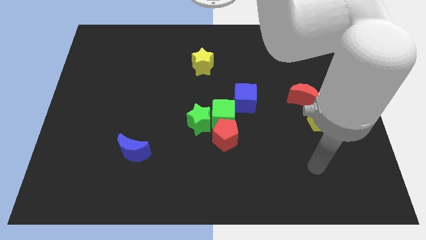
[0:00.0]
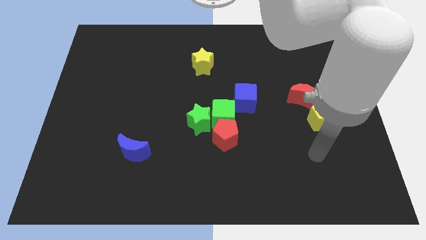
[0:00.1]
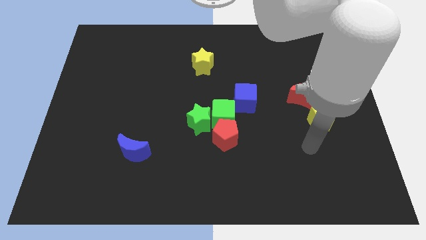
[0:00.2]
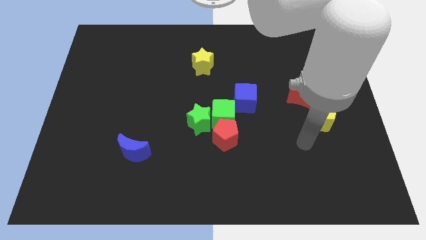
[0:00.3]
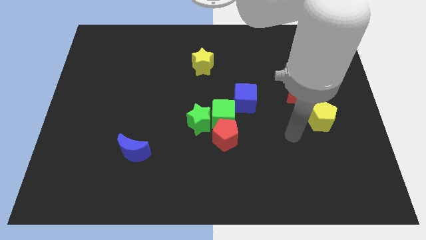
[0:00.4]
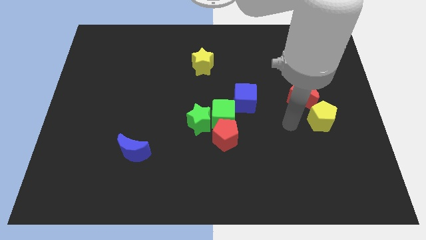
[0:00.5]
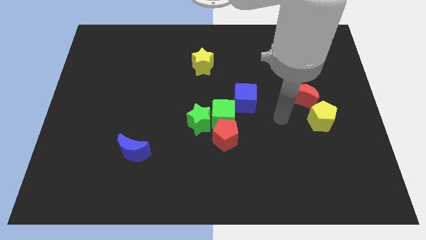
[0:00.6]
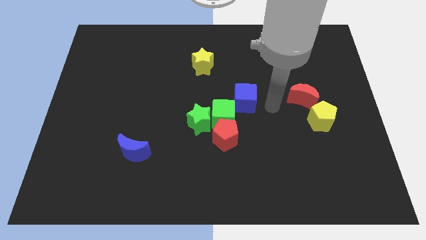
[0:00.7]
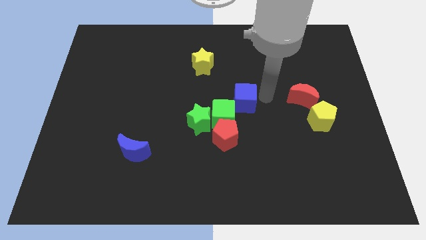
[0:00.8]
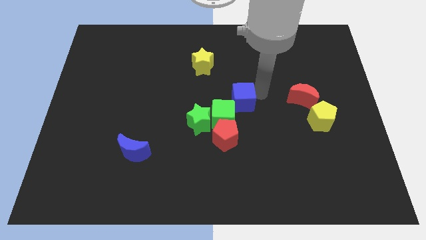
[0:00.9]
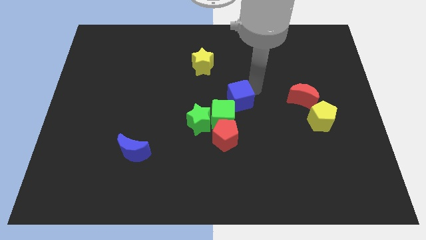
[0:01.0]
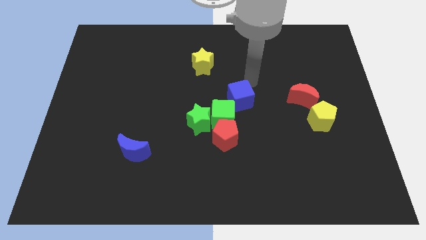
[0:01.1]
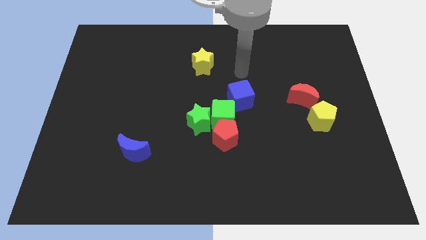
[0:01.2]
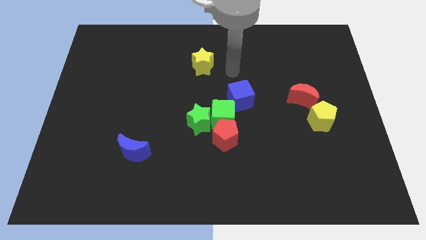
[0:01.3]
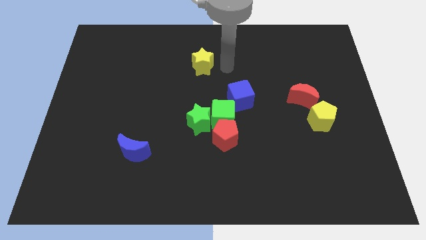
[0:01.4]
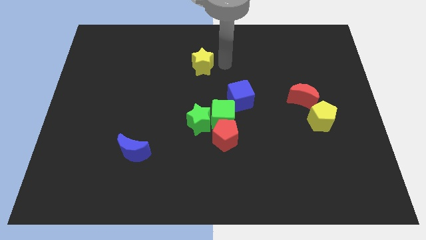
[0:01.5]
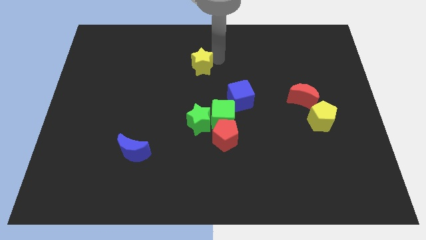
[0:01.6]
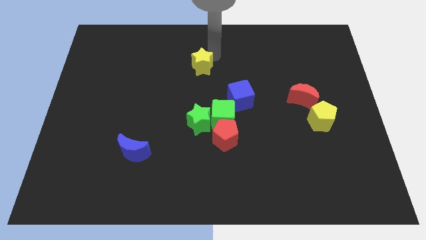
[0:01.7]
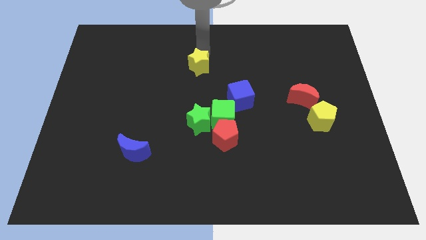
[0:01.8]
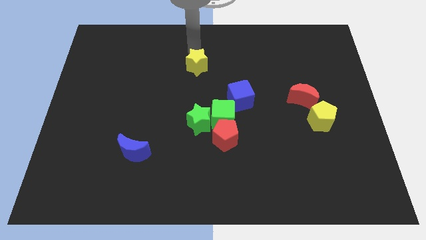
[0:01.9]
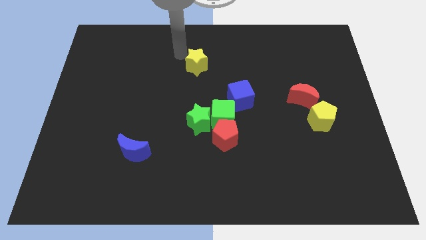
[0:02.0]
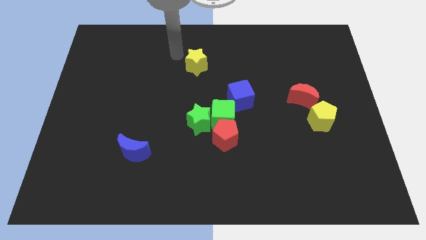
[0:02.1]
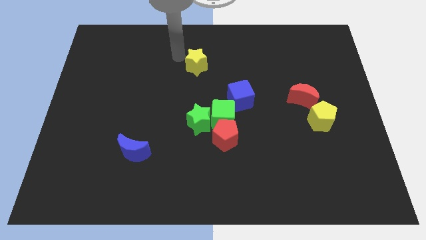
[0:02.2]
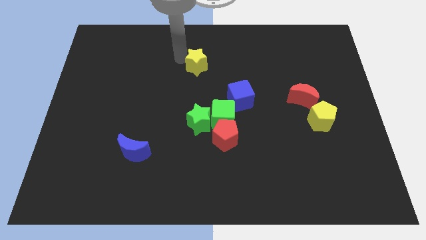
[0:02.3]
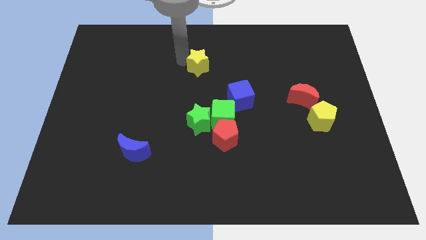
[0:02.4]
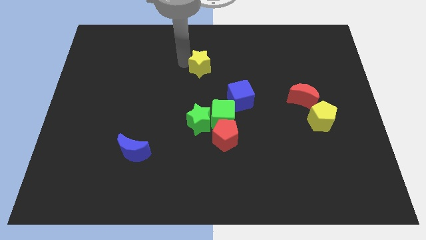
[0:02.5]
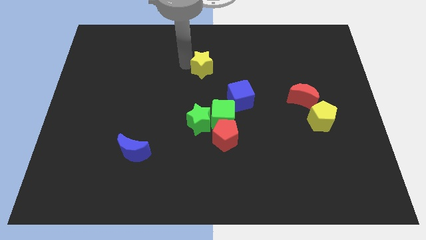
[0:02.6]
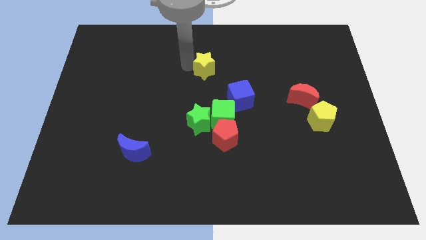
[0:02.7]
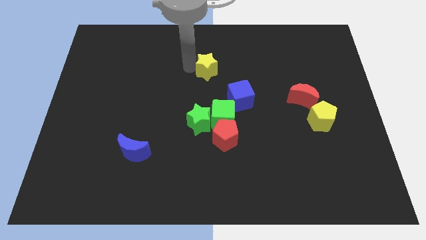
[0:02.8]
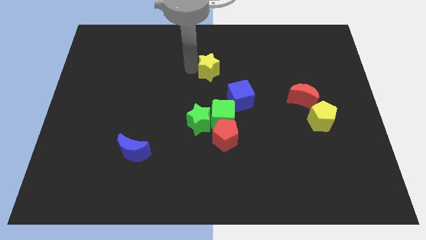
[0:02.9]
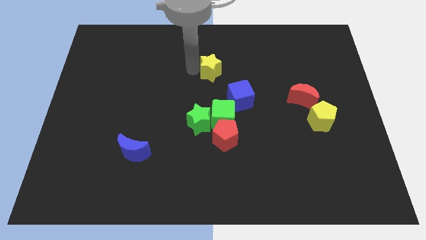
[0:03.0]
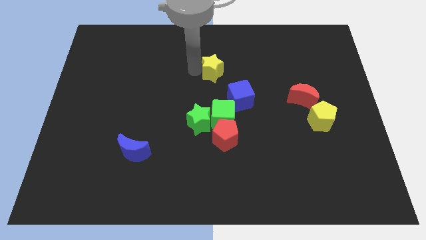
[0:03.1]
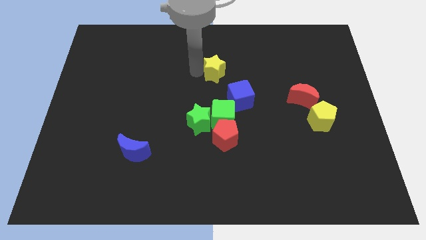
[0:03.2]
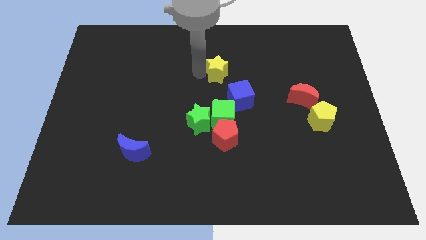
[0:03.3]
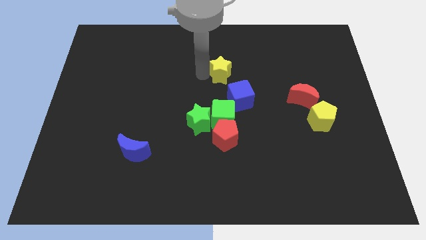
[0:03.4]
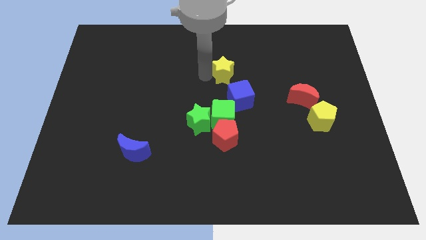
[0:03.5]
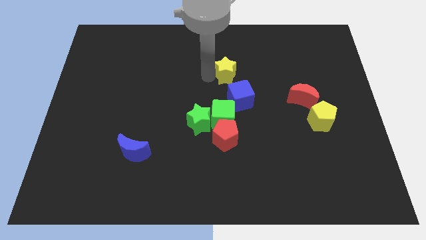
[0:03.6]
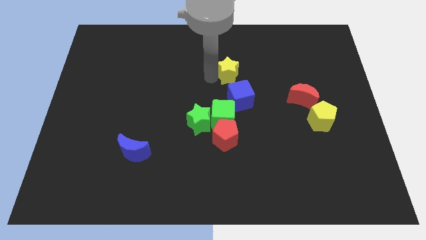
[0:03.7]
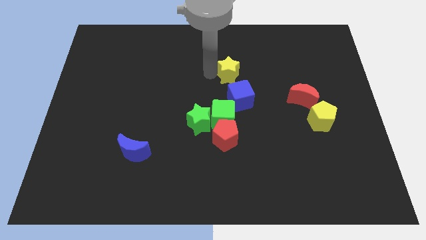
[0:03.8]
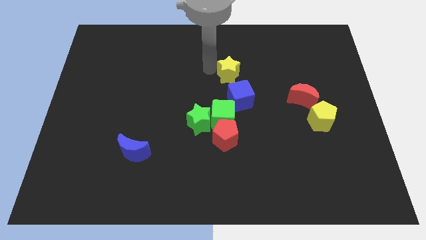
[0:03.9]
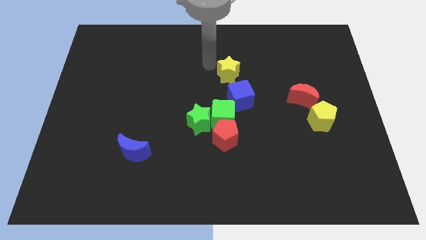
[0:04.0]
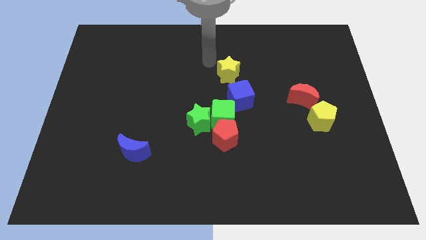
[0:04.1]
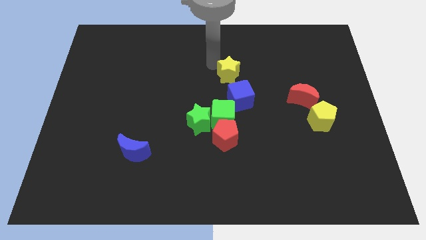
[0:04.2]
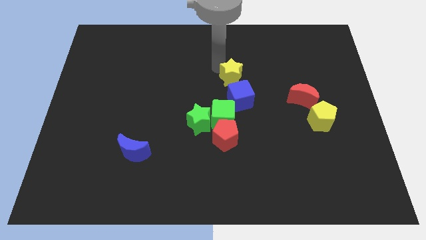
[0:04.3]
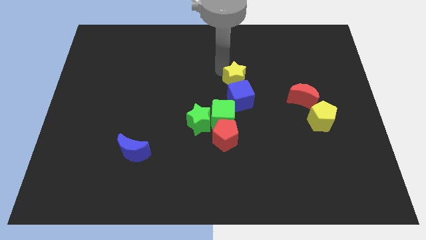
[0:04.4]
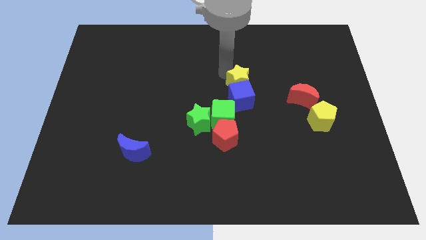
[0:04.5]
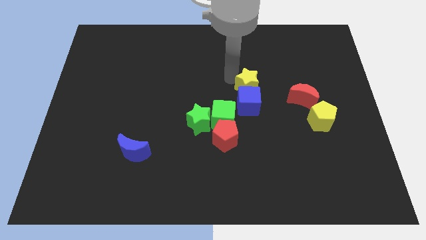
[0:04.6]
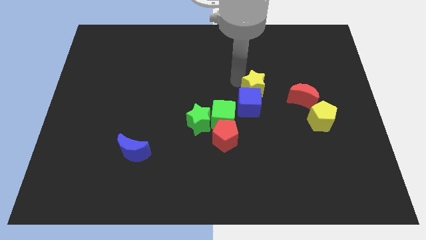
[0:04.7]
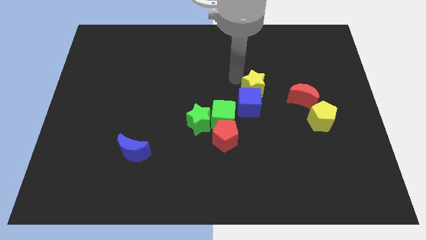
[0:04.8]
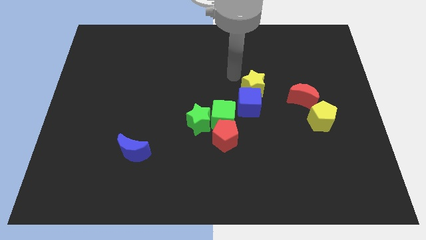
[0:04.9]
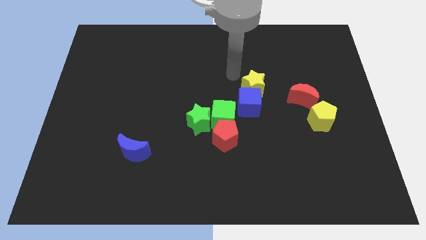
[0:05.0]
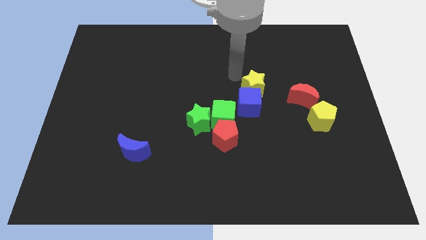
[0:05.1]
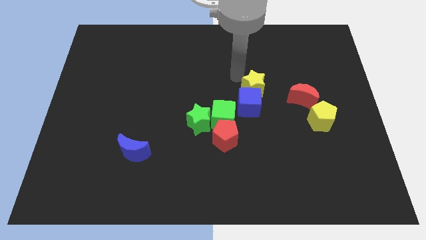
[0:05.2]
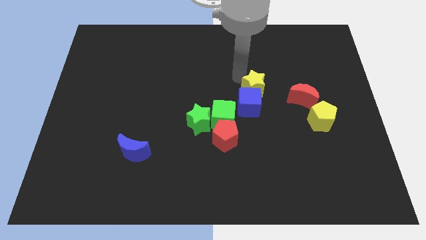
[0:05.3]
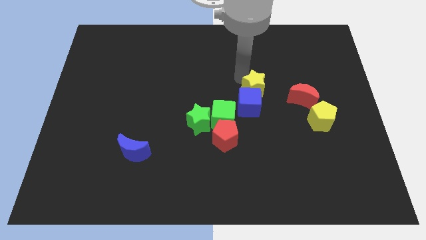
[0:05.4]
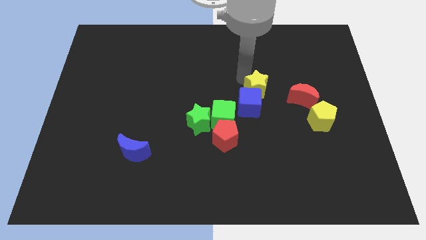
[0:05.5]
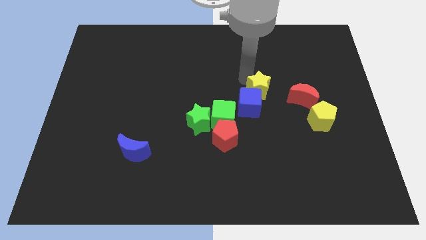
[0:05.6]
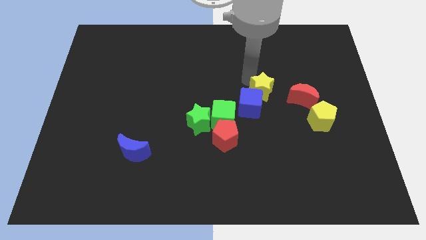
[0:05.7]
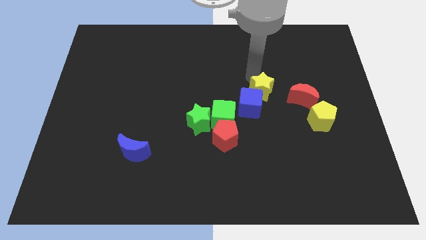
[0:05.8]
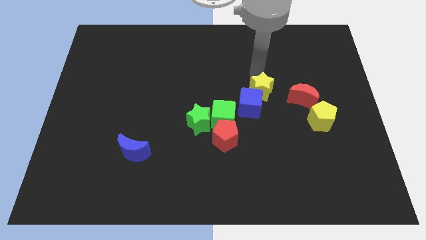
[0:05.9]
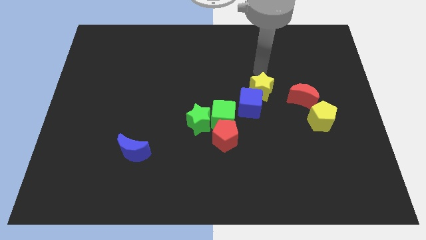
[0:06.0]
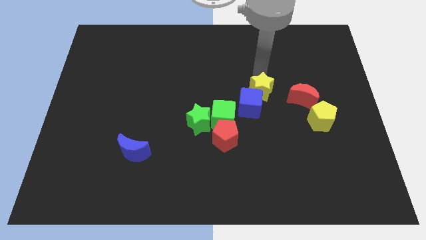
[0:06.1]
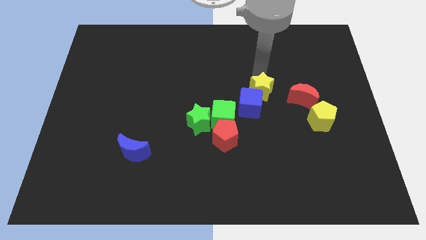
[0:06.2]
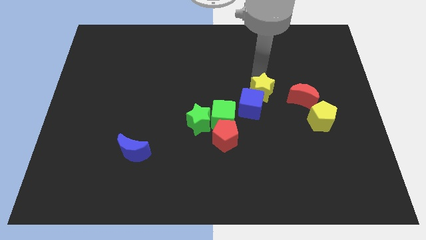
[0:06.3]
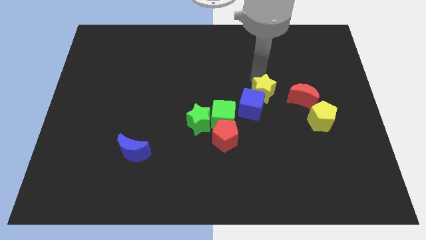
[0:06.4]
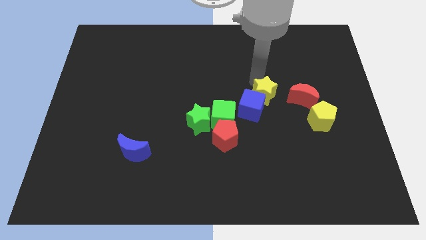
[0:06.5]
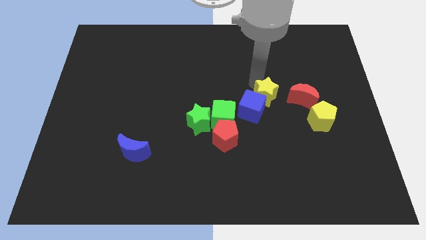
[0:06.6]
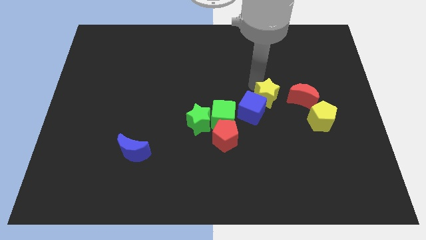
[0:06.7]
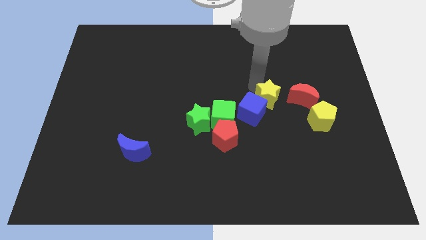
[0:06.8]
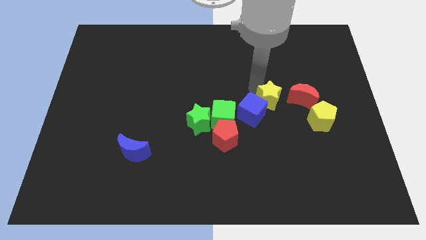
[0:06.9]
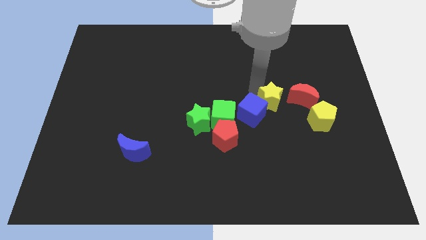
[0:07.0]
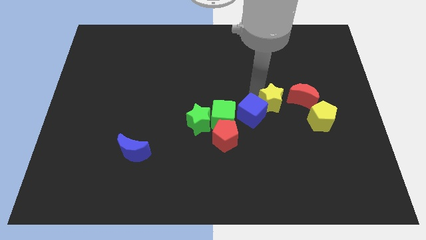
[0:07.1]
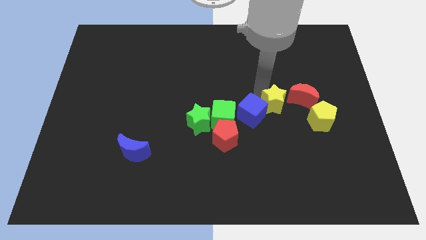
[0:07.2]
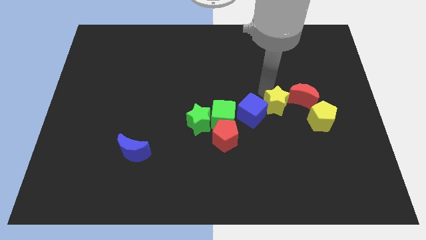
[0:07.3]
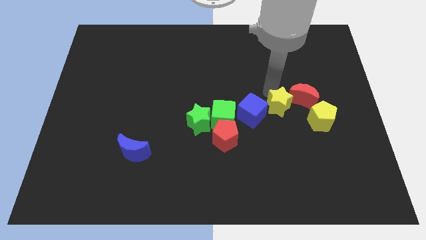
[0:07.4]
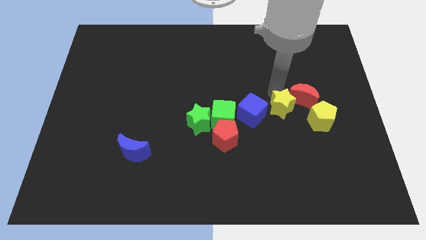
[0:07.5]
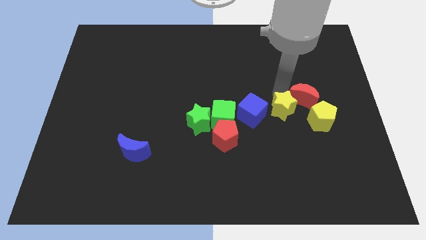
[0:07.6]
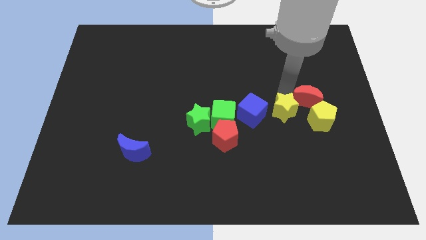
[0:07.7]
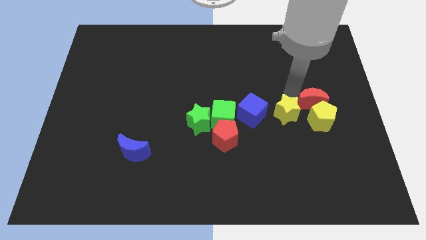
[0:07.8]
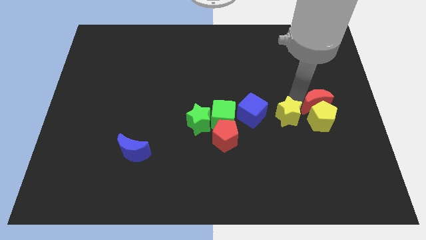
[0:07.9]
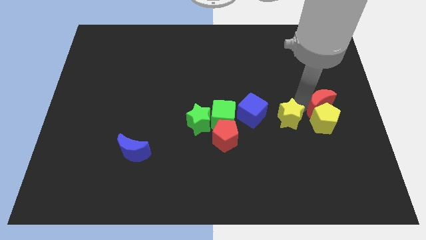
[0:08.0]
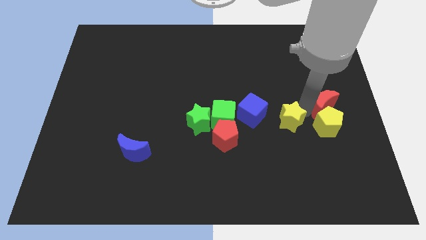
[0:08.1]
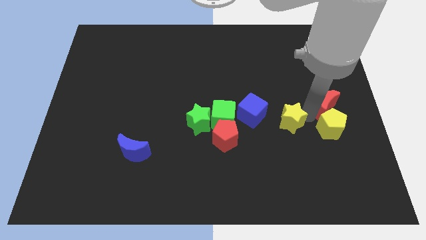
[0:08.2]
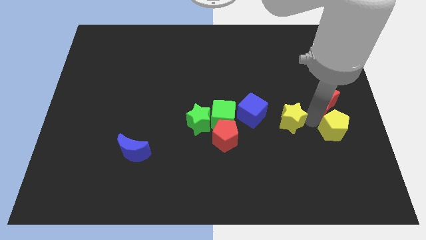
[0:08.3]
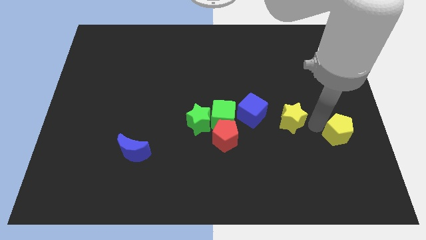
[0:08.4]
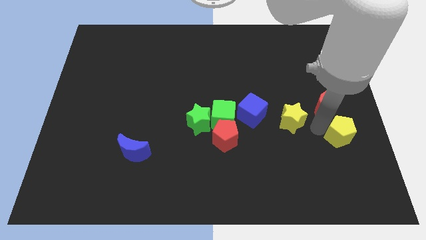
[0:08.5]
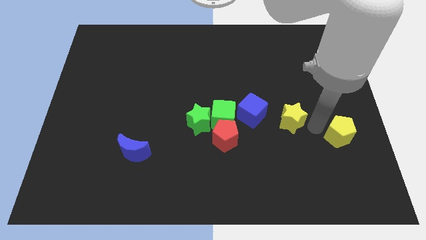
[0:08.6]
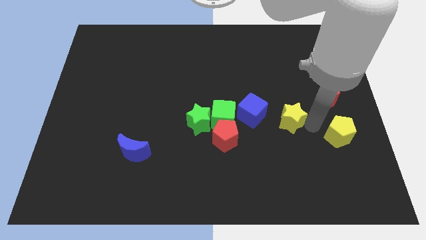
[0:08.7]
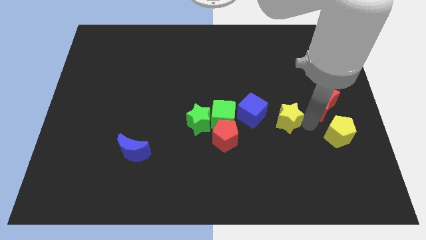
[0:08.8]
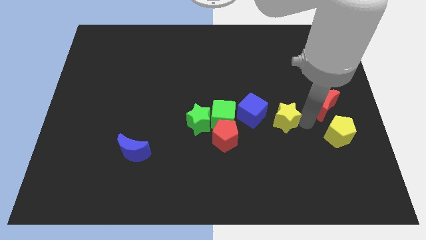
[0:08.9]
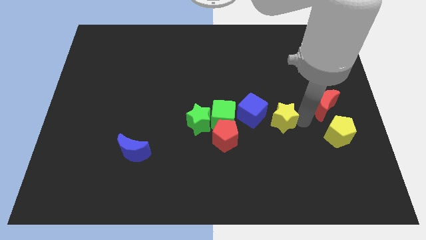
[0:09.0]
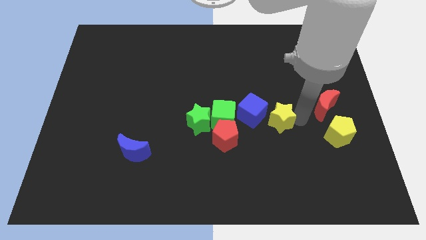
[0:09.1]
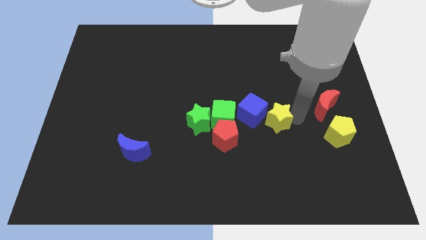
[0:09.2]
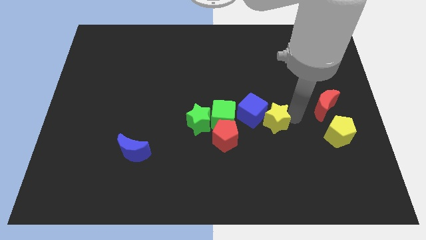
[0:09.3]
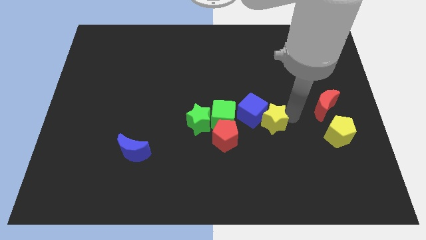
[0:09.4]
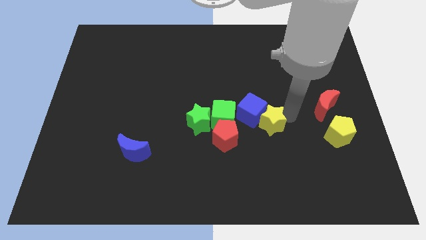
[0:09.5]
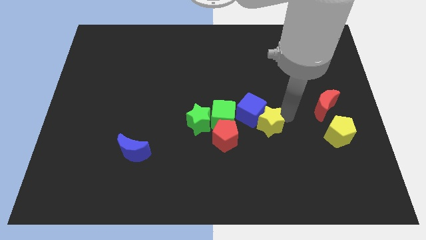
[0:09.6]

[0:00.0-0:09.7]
move the yellow star to the right of the green star
